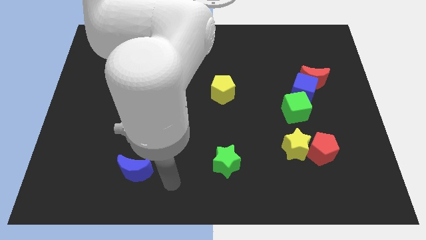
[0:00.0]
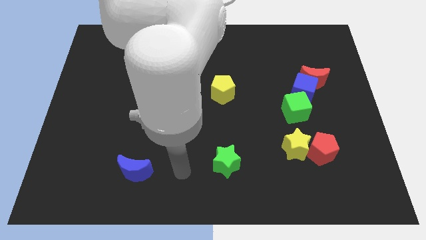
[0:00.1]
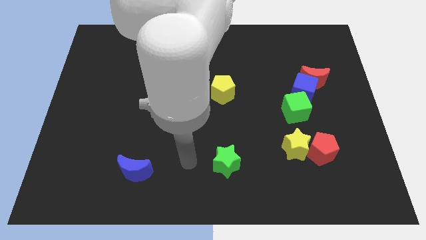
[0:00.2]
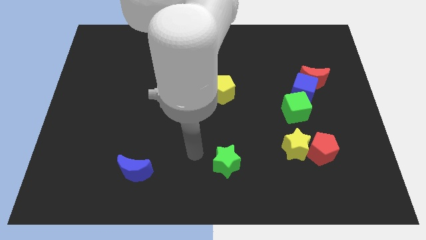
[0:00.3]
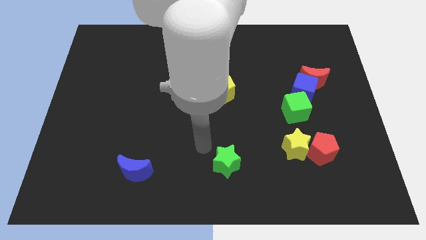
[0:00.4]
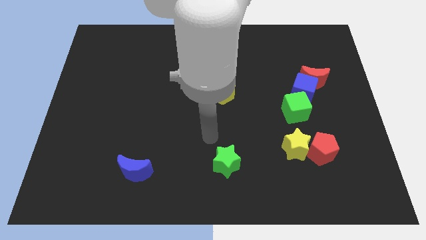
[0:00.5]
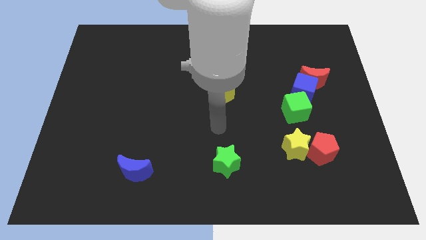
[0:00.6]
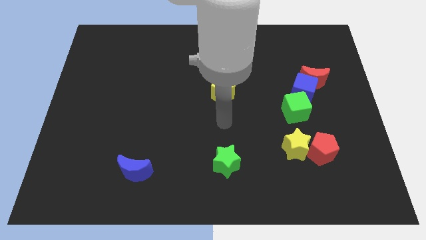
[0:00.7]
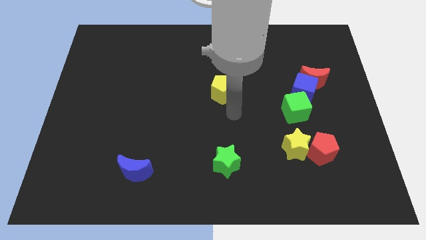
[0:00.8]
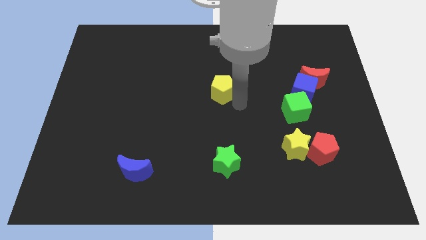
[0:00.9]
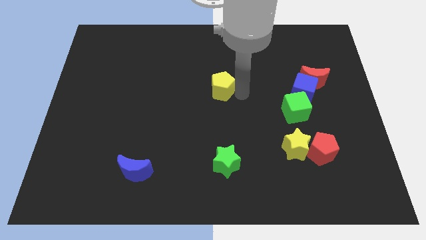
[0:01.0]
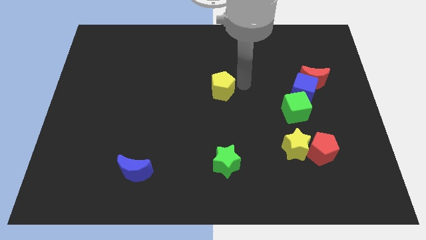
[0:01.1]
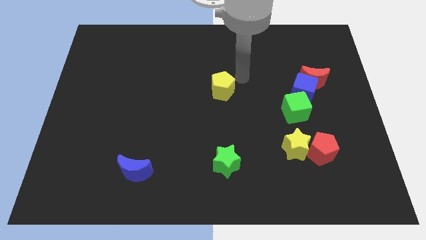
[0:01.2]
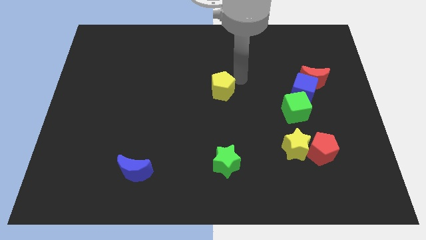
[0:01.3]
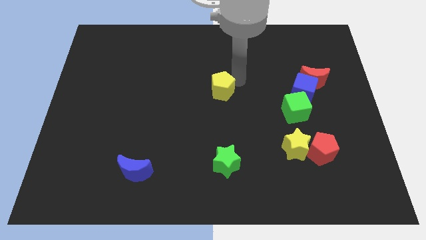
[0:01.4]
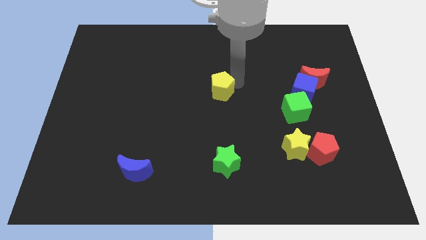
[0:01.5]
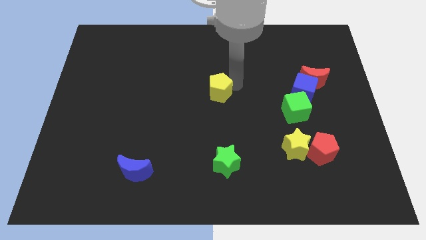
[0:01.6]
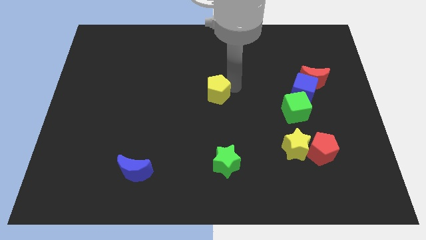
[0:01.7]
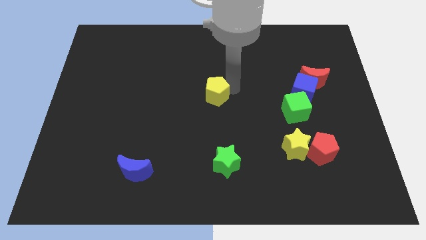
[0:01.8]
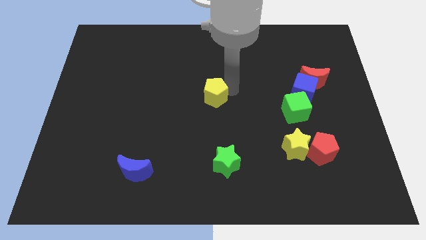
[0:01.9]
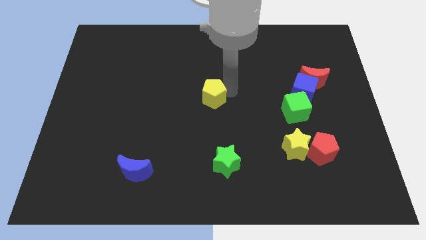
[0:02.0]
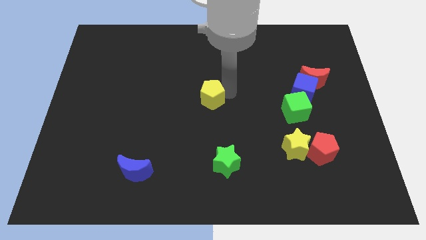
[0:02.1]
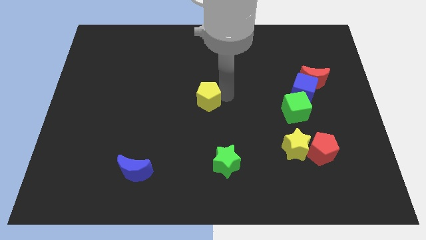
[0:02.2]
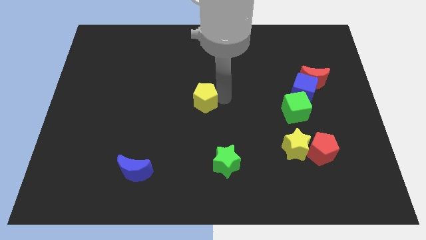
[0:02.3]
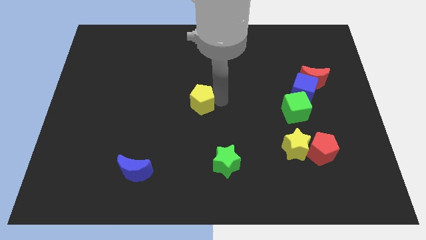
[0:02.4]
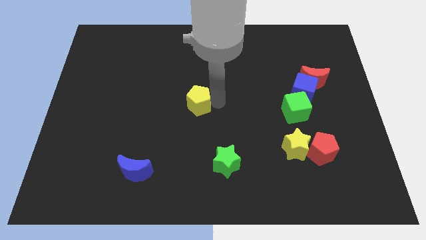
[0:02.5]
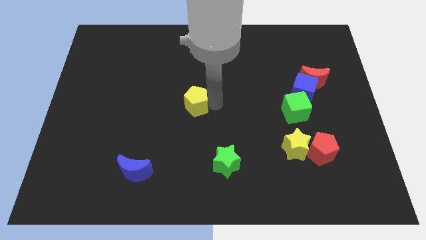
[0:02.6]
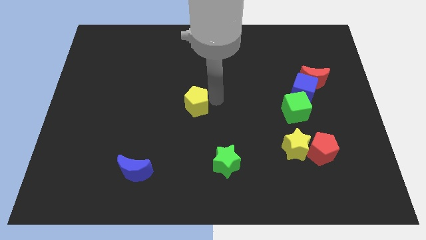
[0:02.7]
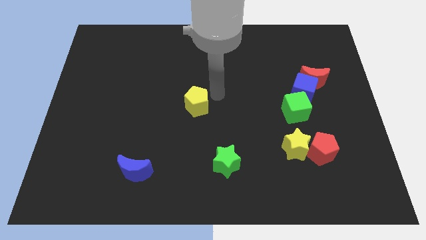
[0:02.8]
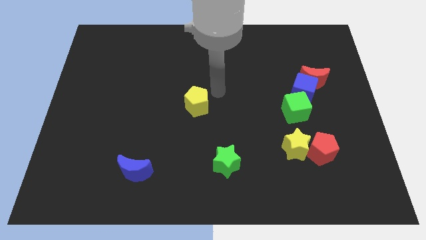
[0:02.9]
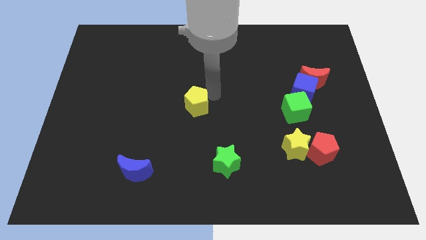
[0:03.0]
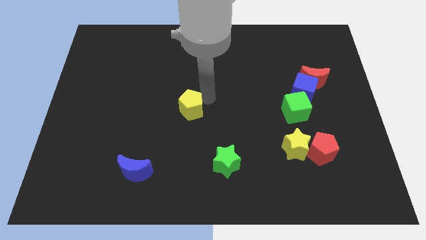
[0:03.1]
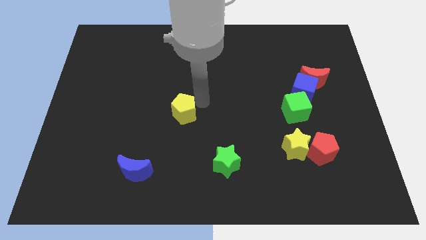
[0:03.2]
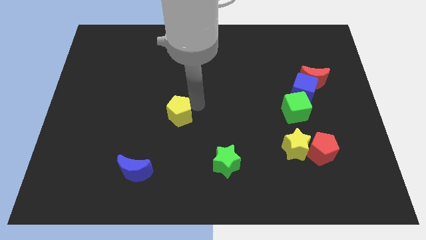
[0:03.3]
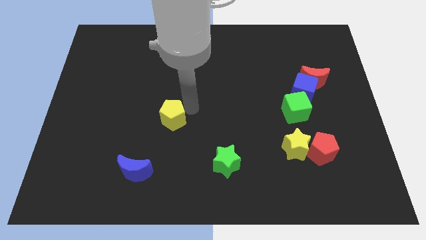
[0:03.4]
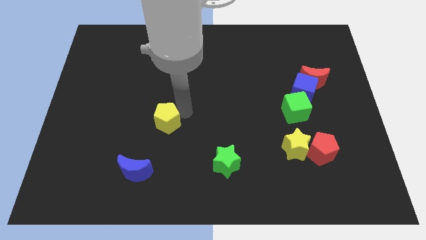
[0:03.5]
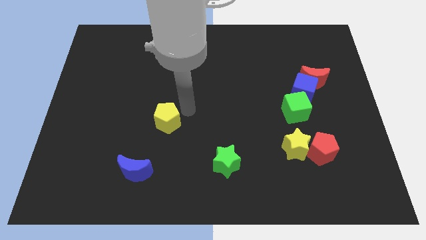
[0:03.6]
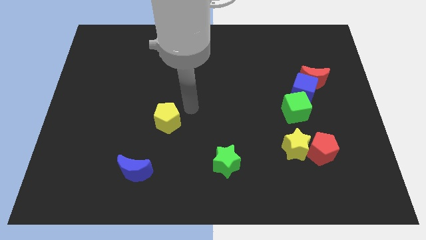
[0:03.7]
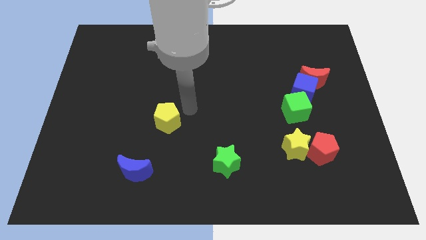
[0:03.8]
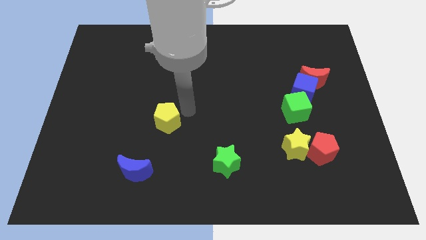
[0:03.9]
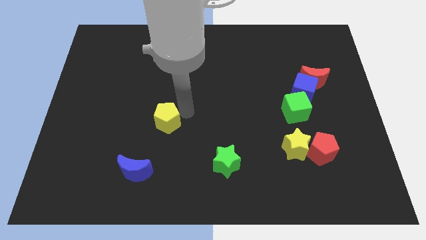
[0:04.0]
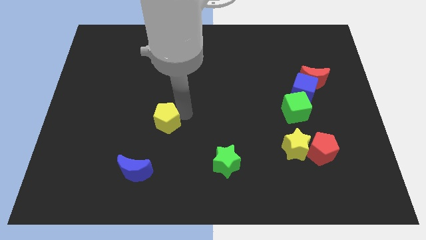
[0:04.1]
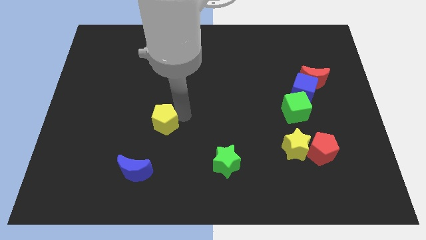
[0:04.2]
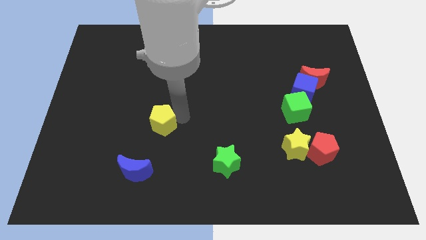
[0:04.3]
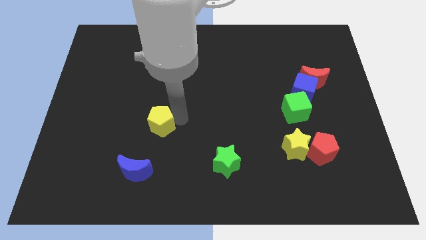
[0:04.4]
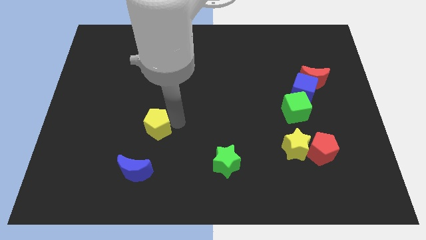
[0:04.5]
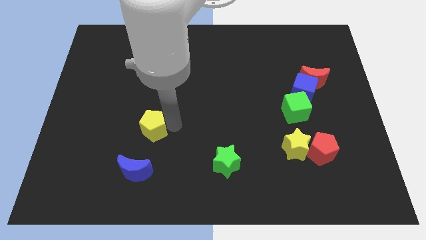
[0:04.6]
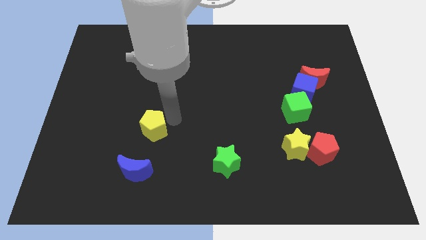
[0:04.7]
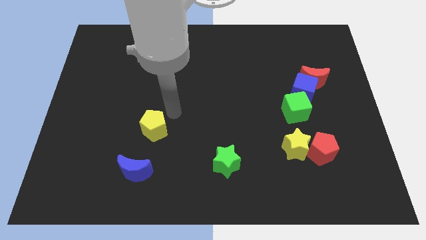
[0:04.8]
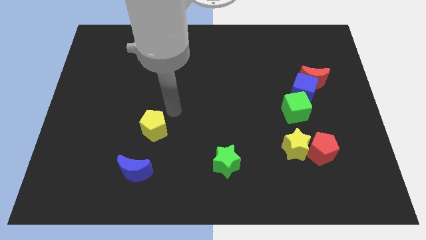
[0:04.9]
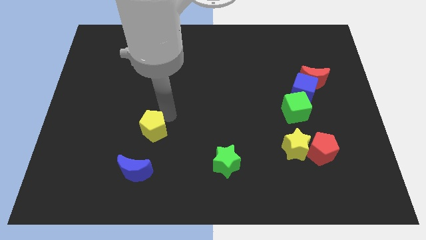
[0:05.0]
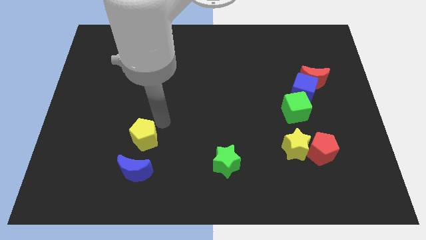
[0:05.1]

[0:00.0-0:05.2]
push the yellow pentagon down and left

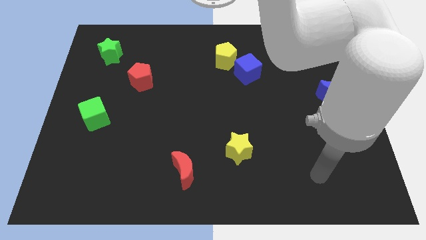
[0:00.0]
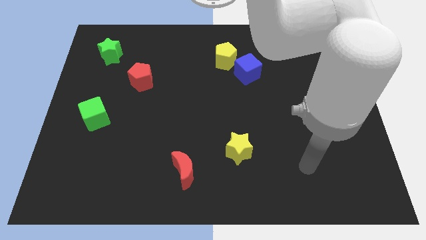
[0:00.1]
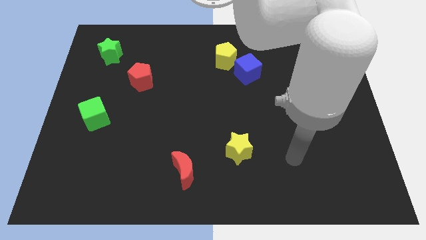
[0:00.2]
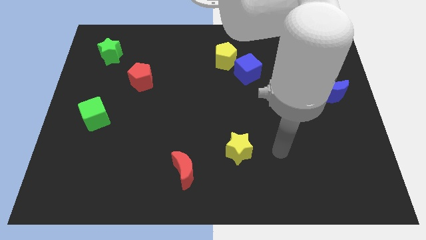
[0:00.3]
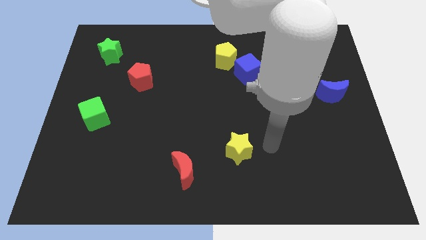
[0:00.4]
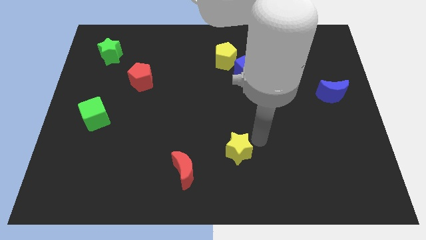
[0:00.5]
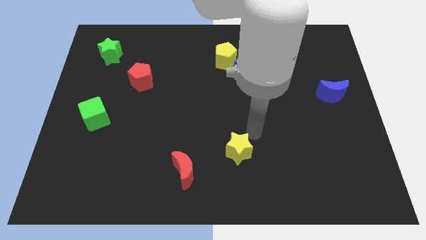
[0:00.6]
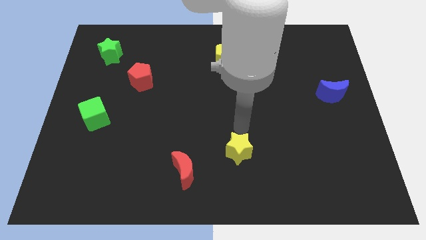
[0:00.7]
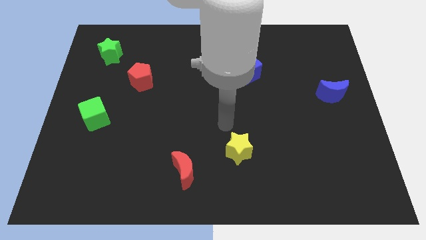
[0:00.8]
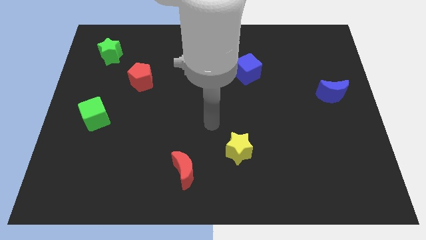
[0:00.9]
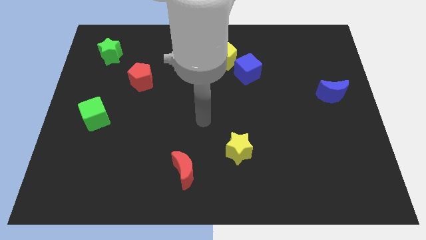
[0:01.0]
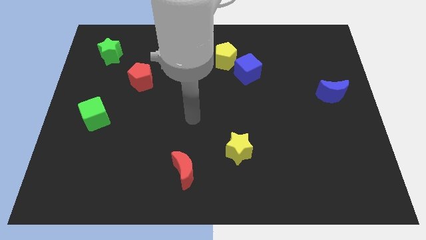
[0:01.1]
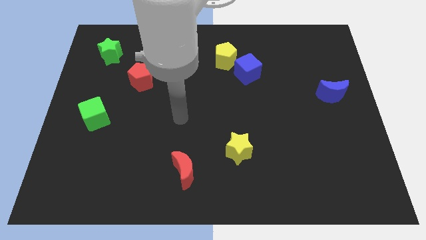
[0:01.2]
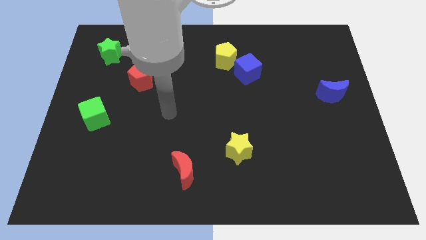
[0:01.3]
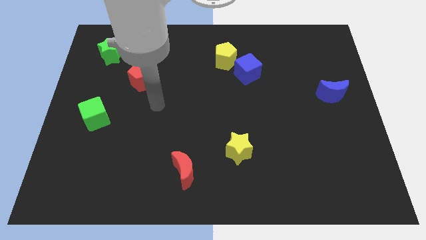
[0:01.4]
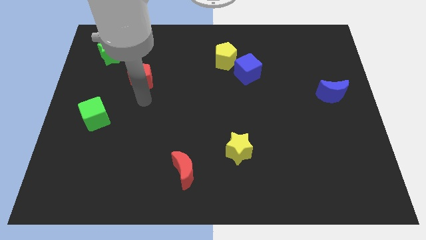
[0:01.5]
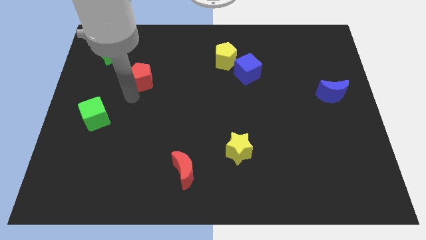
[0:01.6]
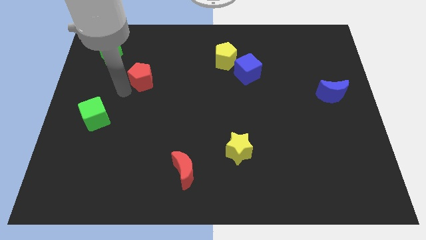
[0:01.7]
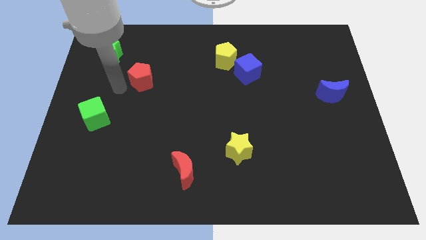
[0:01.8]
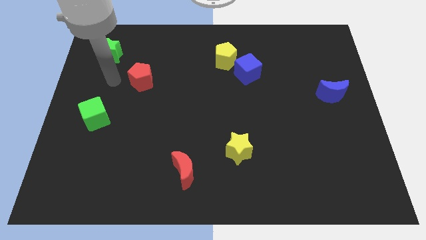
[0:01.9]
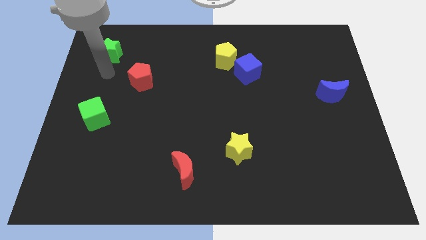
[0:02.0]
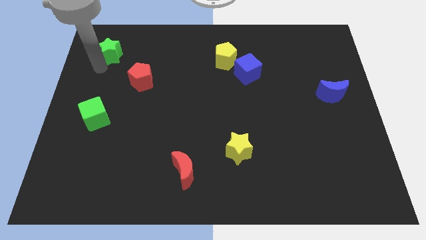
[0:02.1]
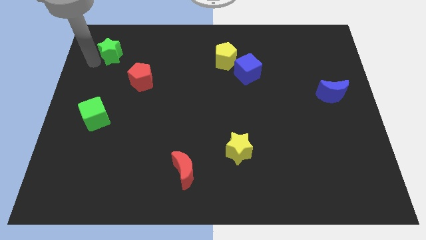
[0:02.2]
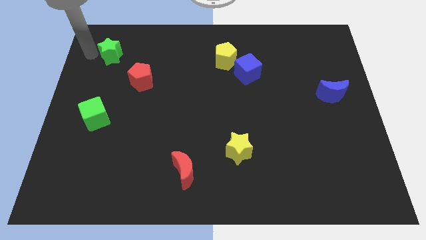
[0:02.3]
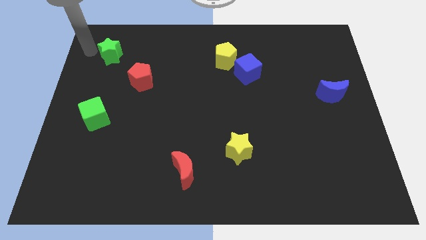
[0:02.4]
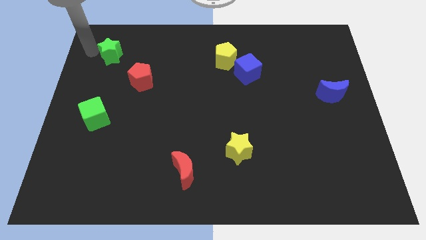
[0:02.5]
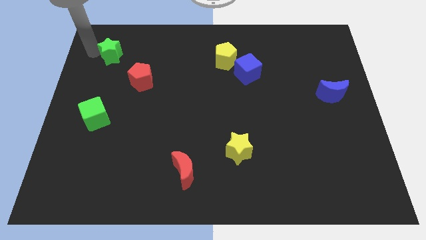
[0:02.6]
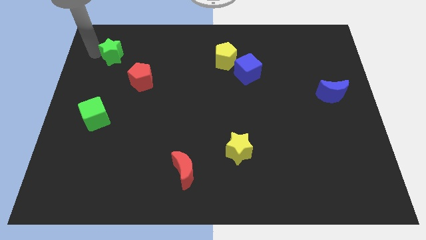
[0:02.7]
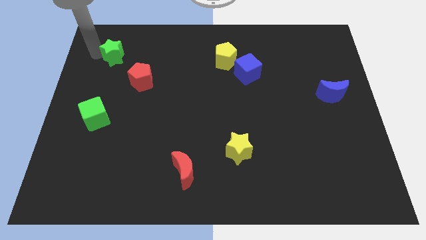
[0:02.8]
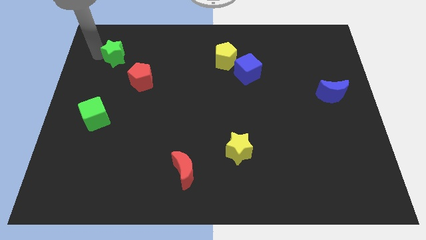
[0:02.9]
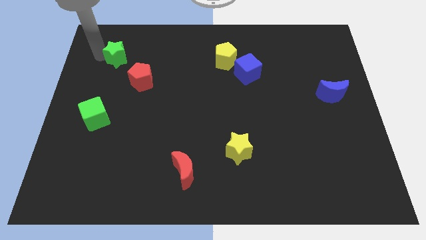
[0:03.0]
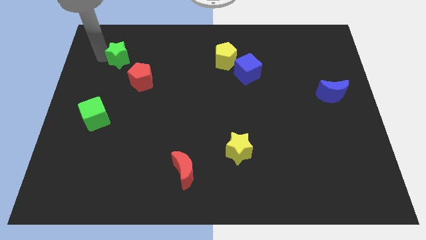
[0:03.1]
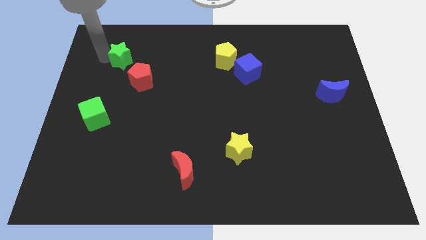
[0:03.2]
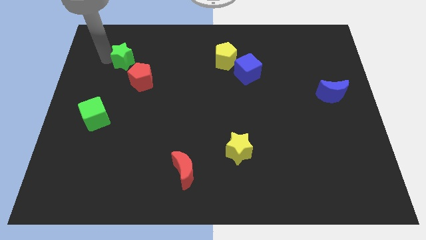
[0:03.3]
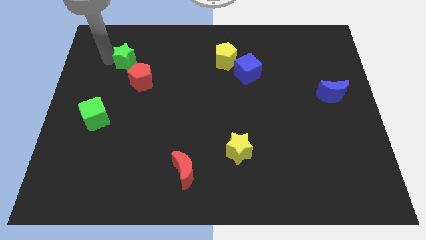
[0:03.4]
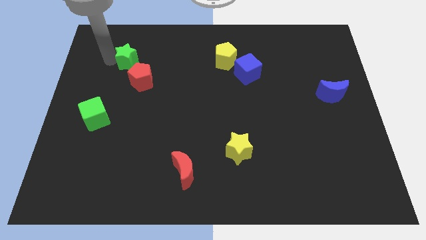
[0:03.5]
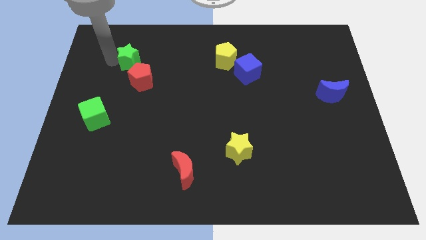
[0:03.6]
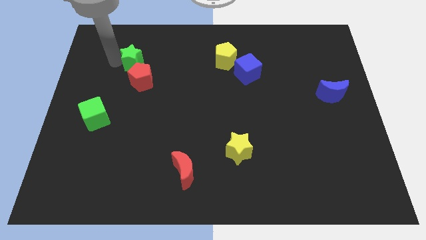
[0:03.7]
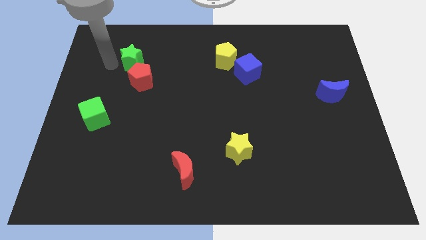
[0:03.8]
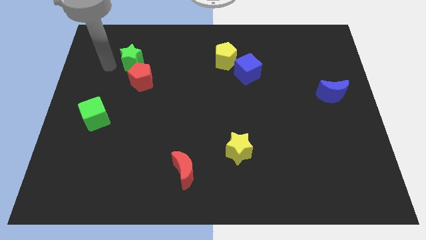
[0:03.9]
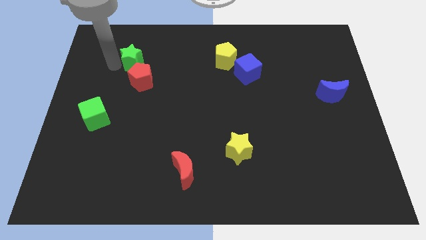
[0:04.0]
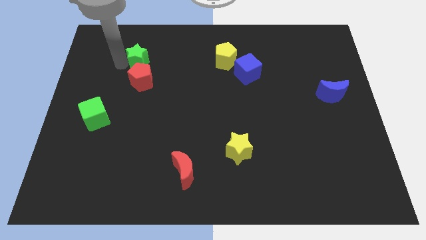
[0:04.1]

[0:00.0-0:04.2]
move the green star a little bit to the right
